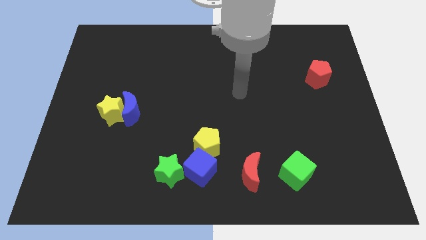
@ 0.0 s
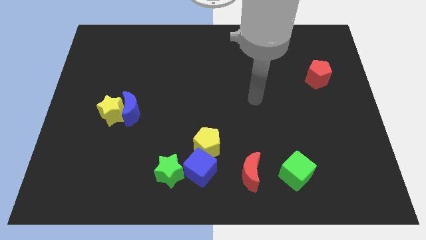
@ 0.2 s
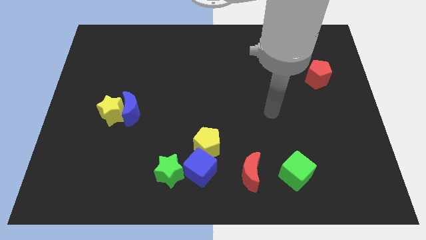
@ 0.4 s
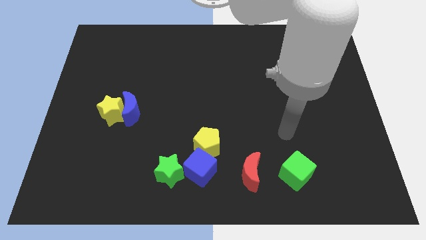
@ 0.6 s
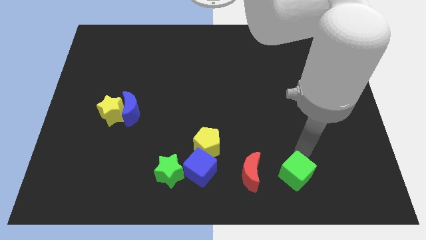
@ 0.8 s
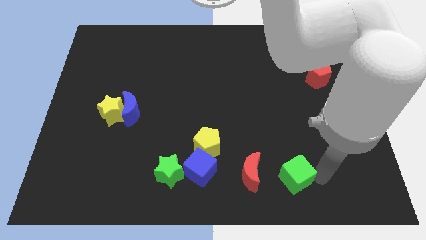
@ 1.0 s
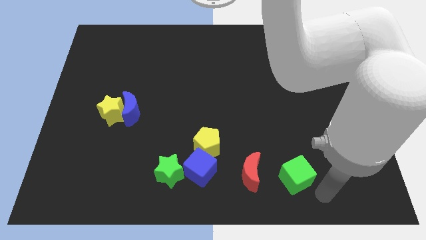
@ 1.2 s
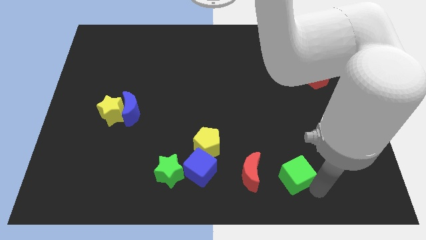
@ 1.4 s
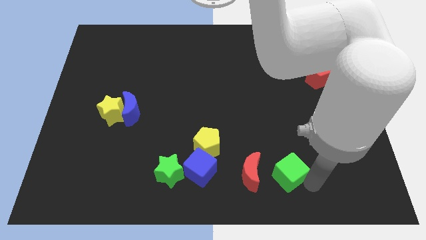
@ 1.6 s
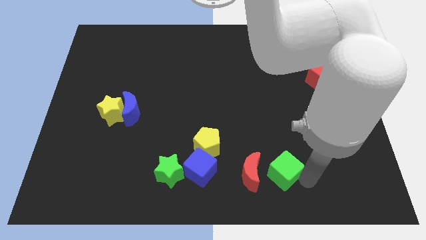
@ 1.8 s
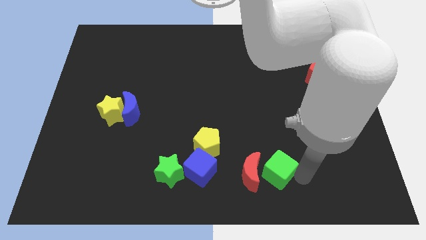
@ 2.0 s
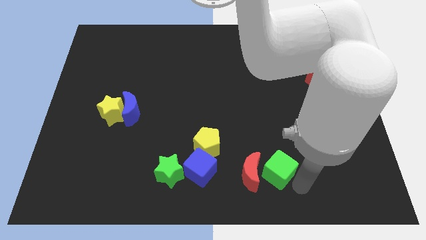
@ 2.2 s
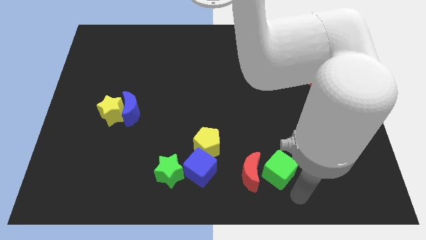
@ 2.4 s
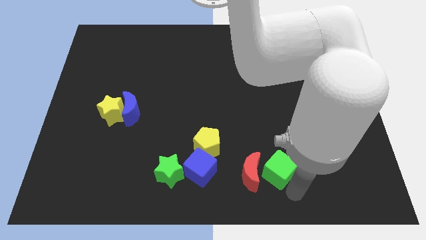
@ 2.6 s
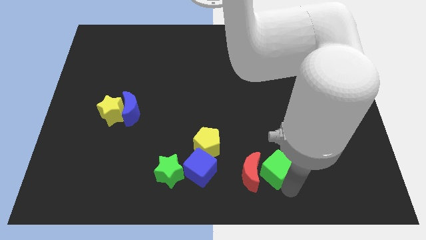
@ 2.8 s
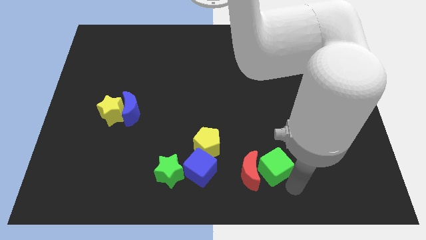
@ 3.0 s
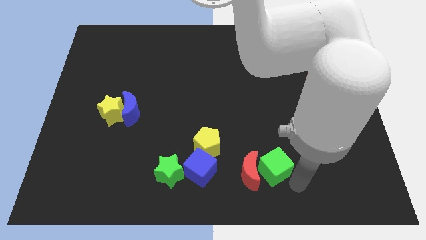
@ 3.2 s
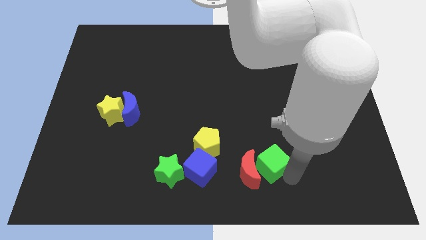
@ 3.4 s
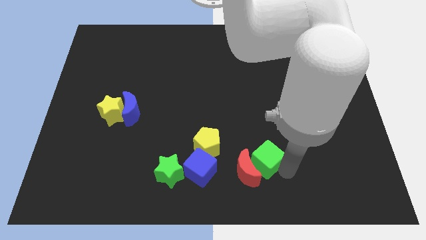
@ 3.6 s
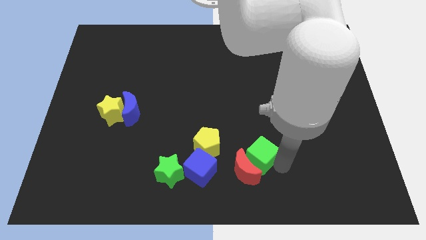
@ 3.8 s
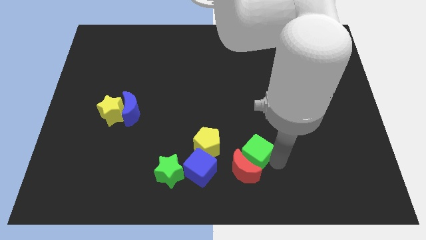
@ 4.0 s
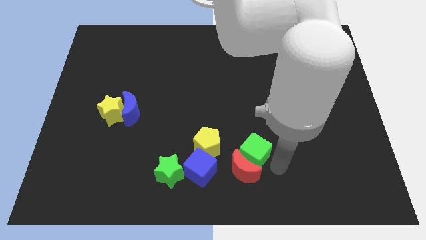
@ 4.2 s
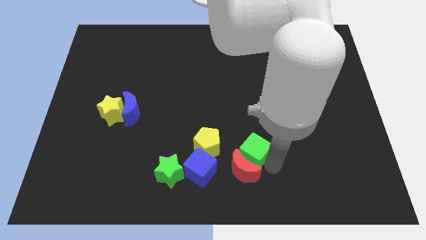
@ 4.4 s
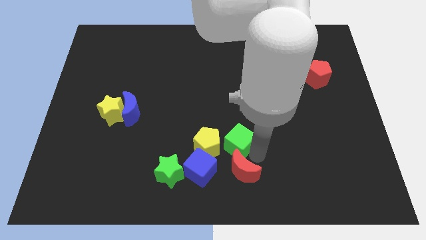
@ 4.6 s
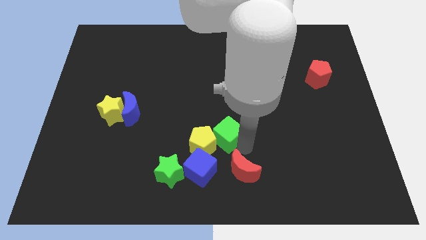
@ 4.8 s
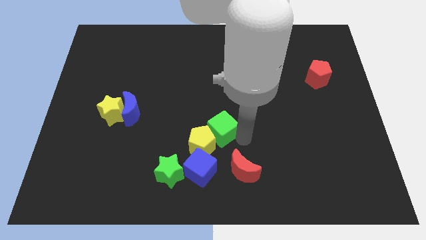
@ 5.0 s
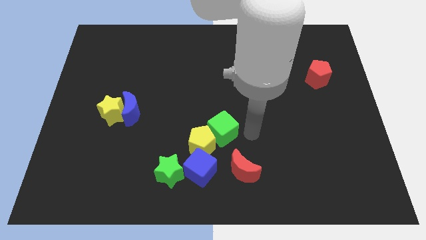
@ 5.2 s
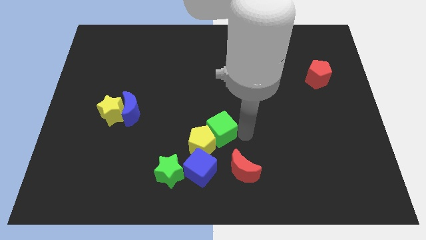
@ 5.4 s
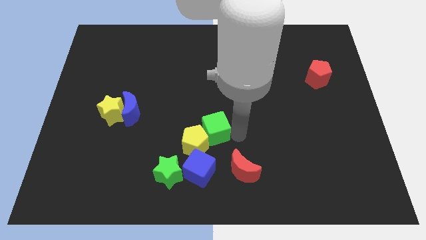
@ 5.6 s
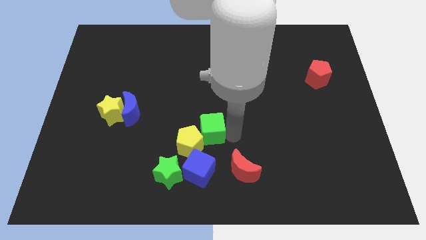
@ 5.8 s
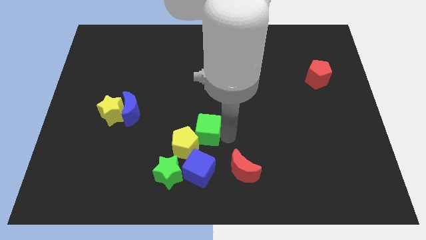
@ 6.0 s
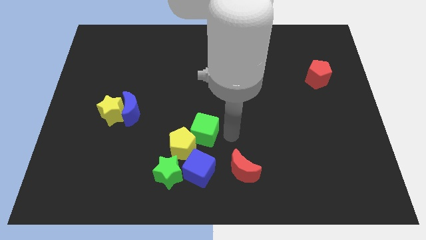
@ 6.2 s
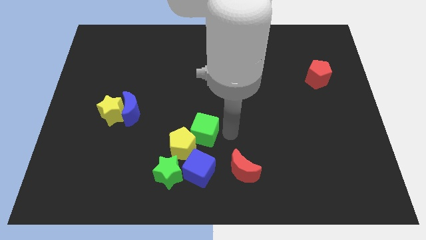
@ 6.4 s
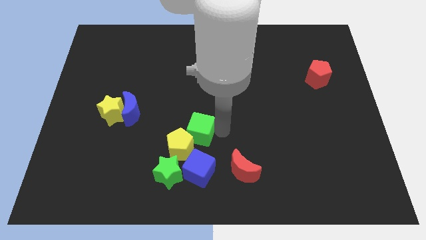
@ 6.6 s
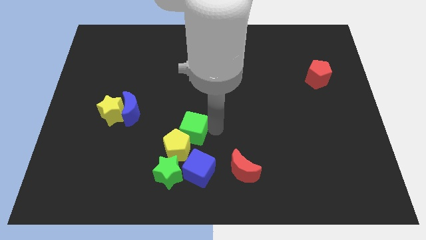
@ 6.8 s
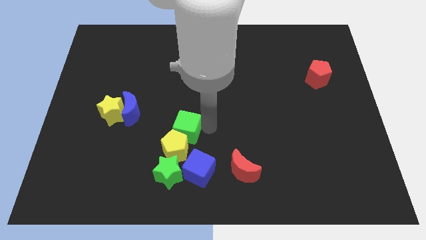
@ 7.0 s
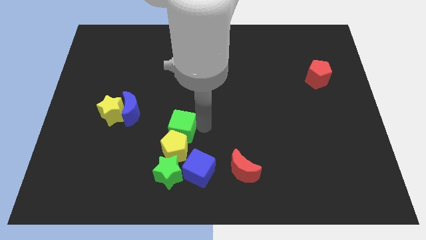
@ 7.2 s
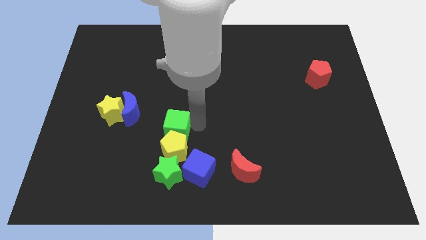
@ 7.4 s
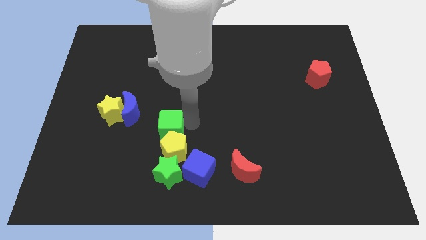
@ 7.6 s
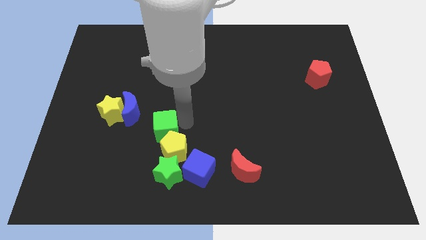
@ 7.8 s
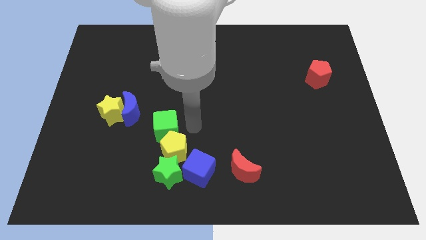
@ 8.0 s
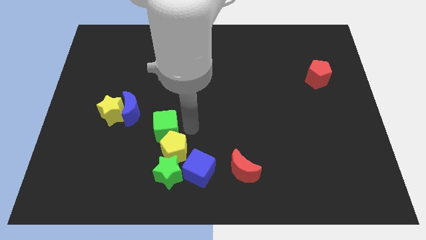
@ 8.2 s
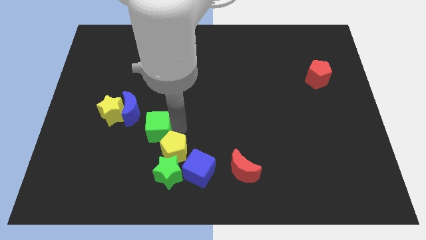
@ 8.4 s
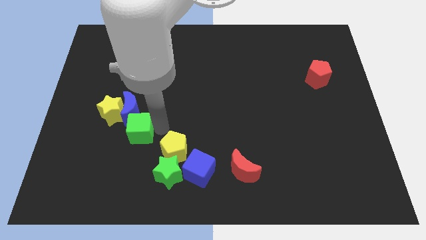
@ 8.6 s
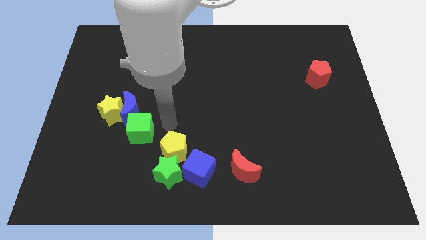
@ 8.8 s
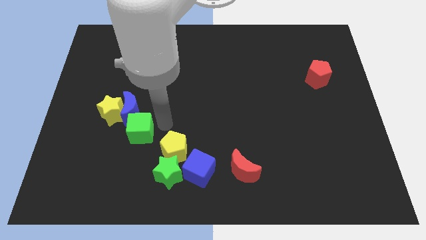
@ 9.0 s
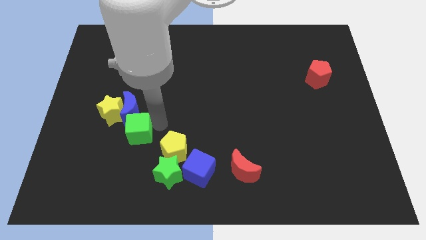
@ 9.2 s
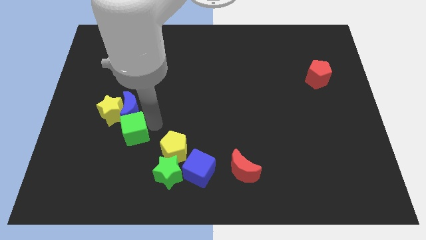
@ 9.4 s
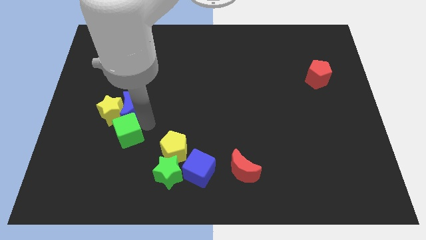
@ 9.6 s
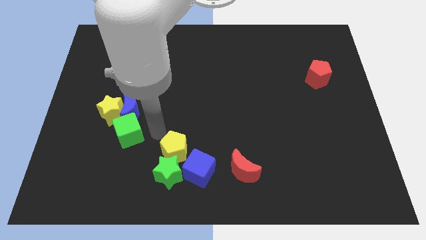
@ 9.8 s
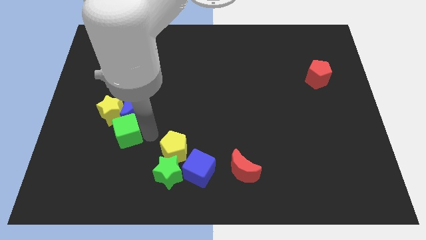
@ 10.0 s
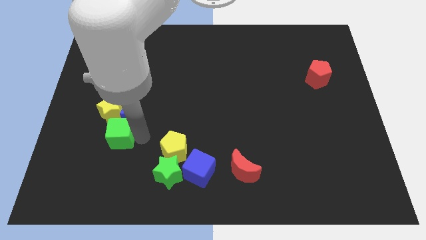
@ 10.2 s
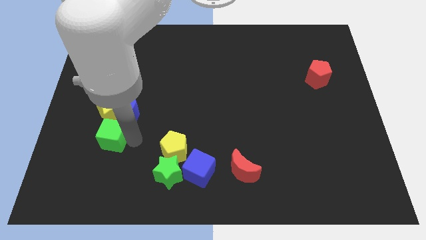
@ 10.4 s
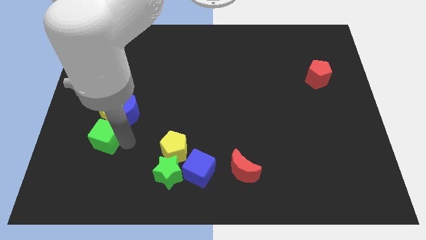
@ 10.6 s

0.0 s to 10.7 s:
push the green cube diagonally down and to the left of the yellow star

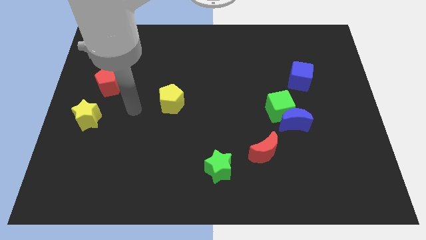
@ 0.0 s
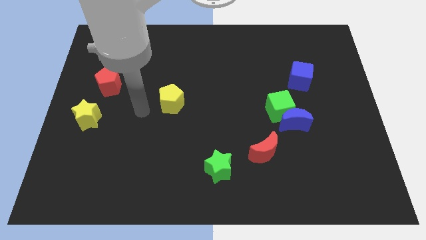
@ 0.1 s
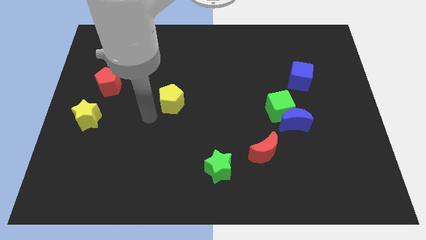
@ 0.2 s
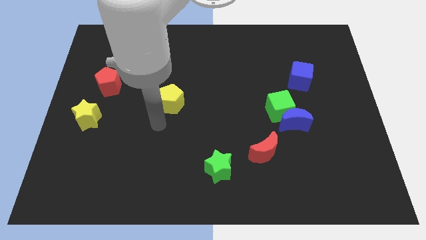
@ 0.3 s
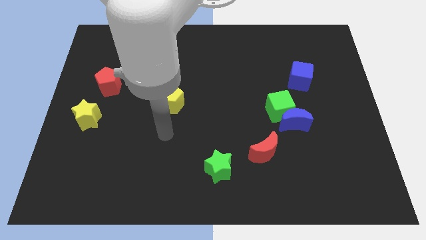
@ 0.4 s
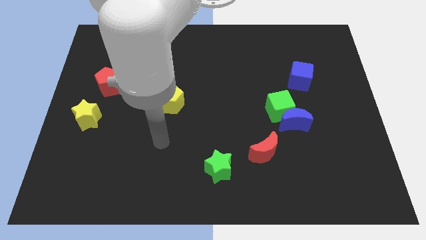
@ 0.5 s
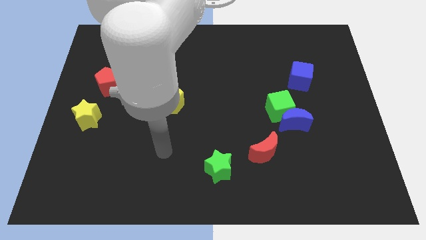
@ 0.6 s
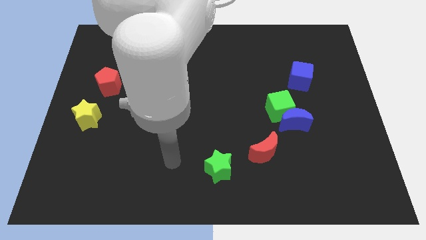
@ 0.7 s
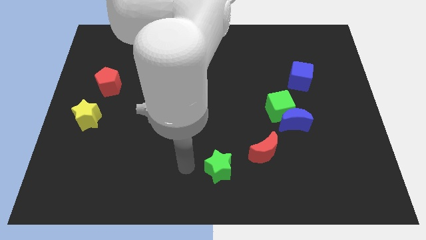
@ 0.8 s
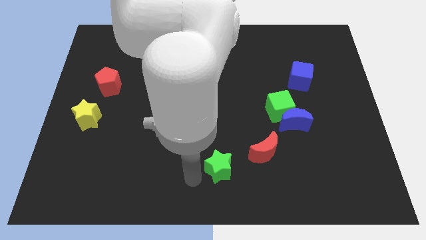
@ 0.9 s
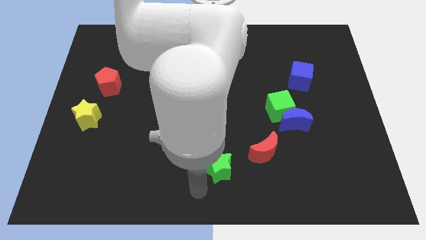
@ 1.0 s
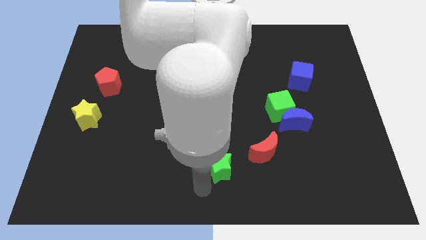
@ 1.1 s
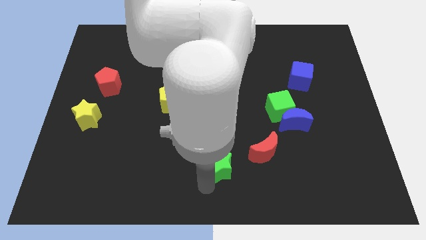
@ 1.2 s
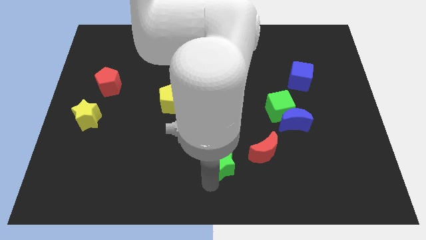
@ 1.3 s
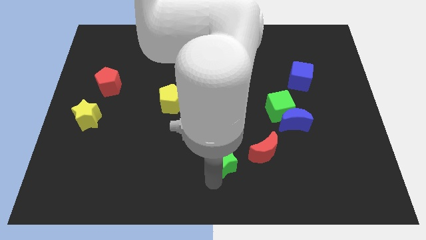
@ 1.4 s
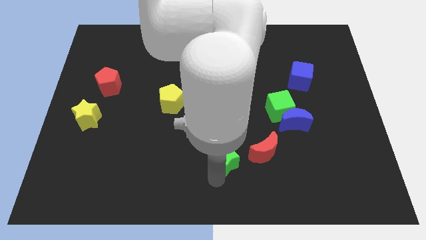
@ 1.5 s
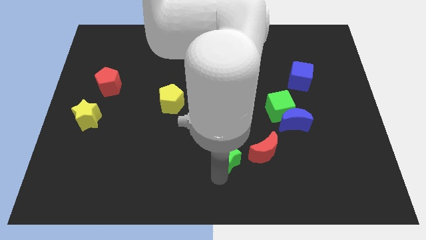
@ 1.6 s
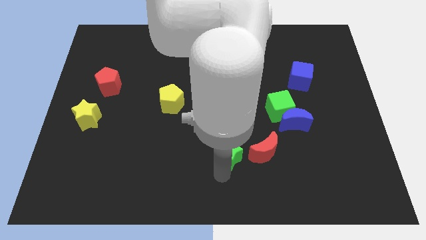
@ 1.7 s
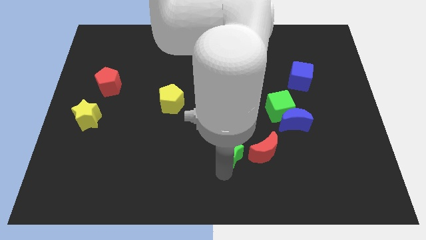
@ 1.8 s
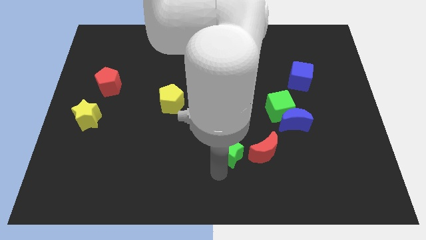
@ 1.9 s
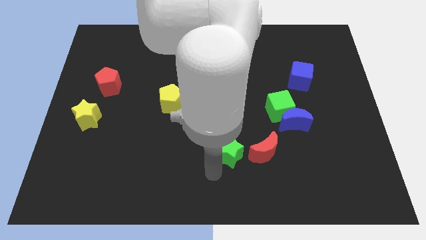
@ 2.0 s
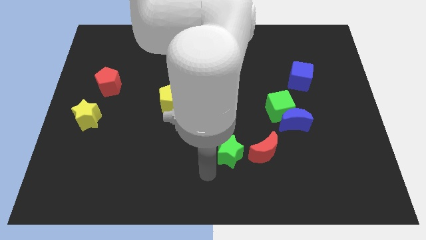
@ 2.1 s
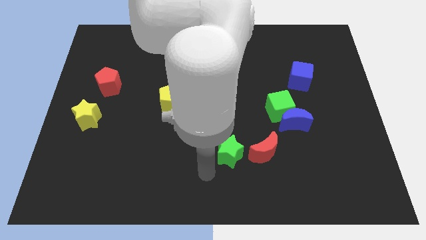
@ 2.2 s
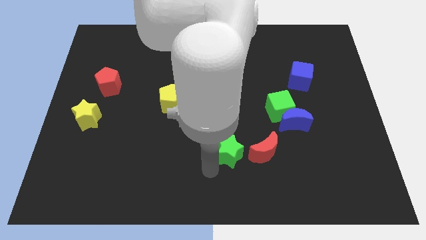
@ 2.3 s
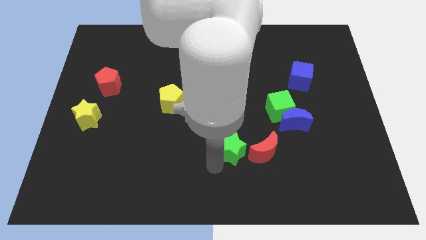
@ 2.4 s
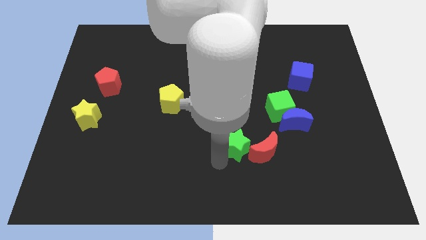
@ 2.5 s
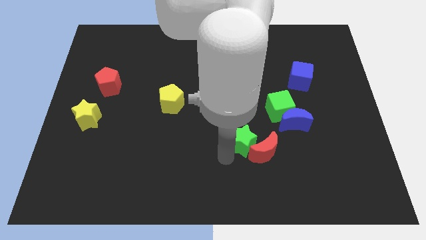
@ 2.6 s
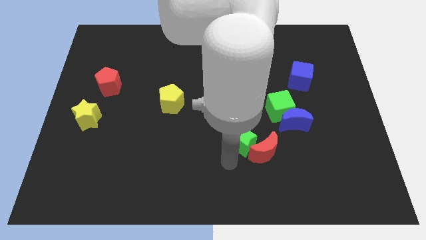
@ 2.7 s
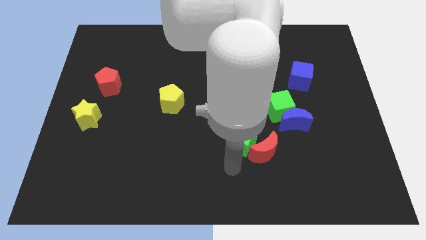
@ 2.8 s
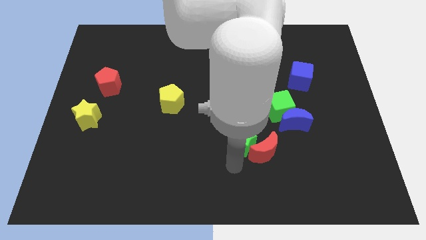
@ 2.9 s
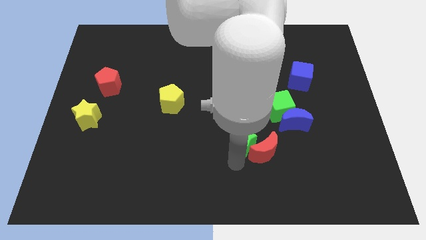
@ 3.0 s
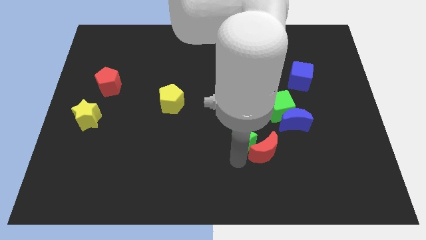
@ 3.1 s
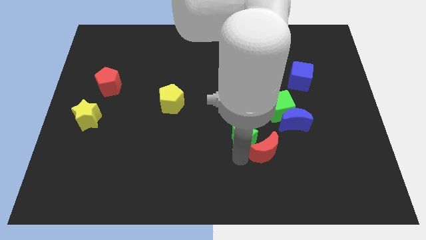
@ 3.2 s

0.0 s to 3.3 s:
put the green star just left of the blue moon
